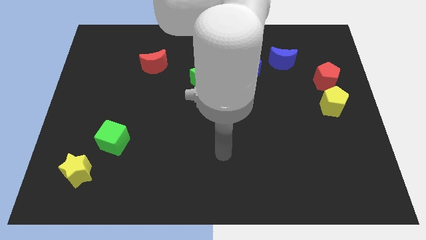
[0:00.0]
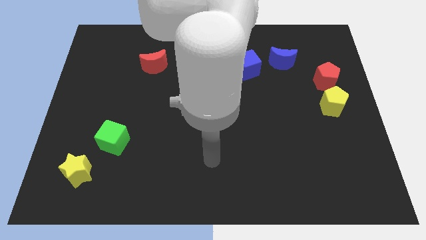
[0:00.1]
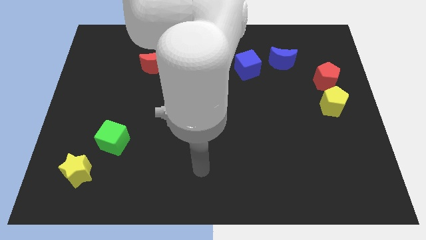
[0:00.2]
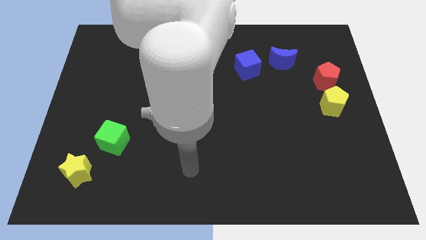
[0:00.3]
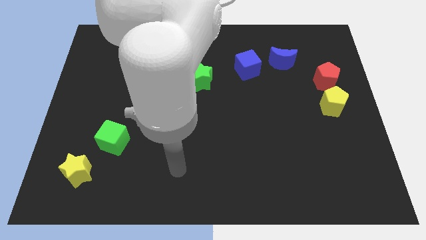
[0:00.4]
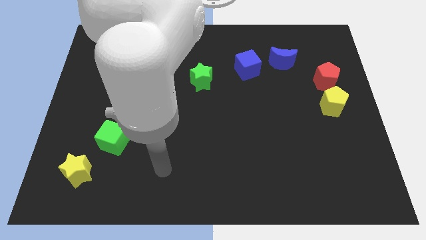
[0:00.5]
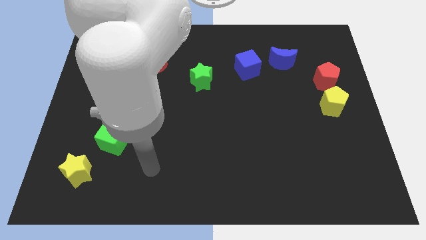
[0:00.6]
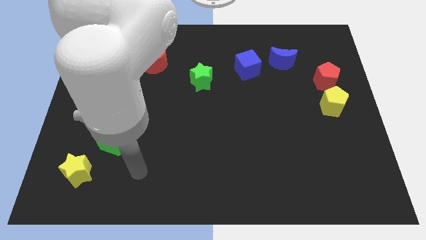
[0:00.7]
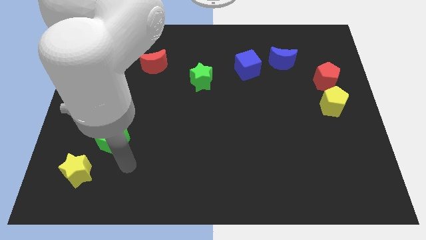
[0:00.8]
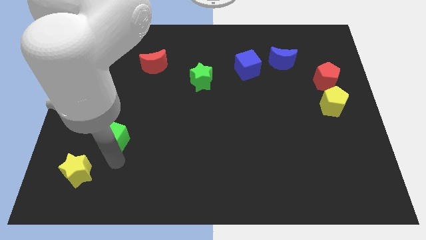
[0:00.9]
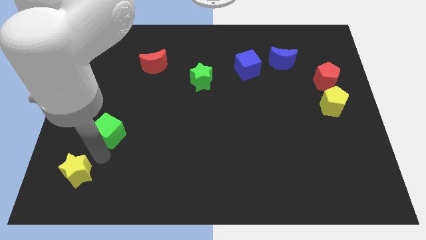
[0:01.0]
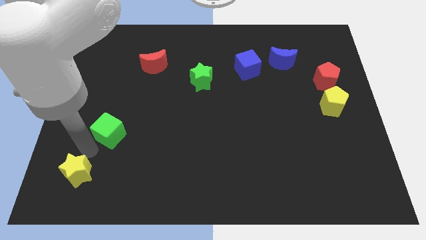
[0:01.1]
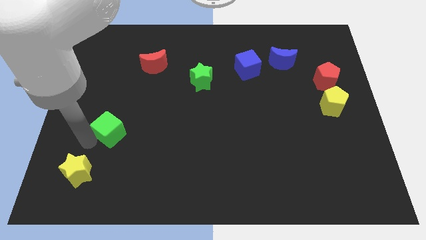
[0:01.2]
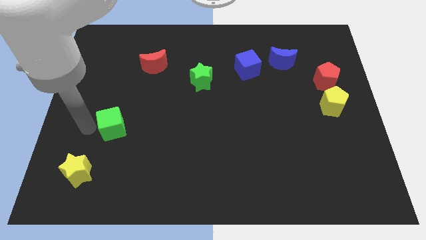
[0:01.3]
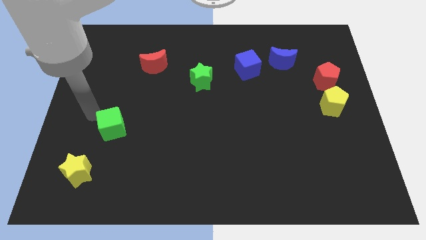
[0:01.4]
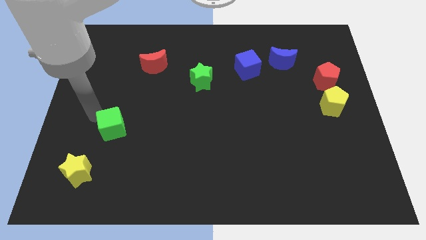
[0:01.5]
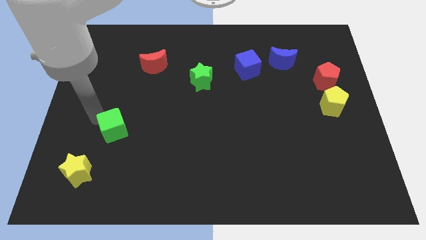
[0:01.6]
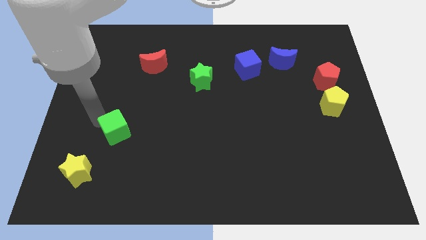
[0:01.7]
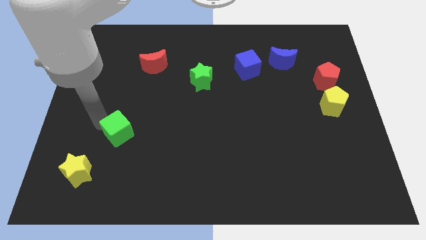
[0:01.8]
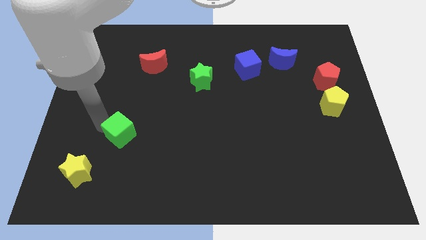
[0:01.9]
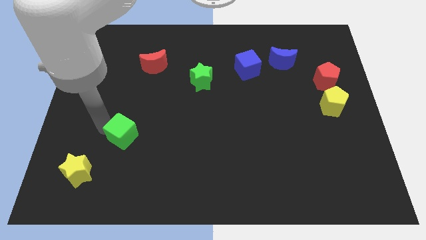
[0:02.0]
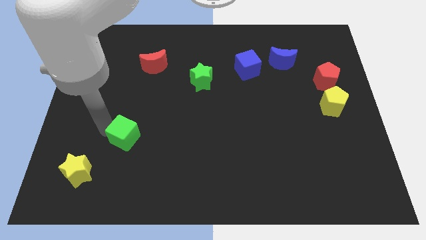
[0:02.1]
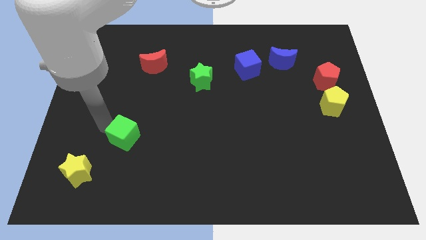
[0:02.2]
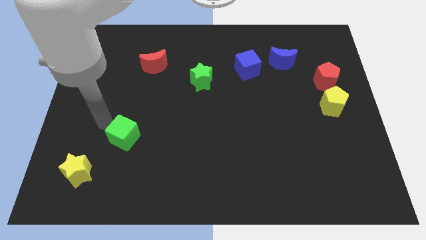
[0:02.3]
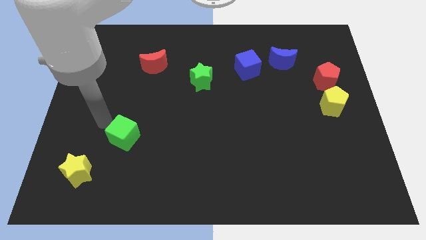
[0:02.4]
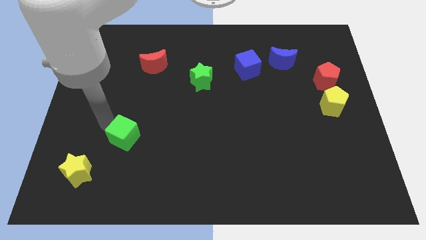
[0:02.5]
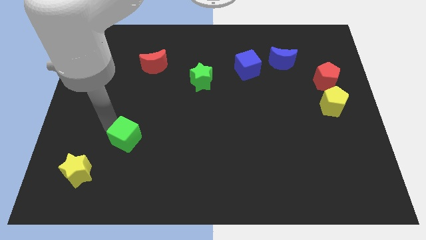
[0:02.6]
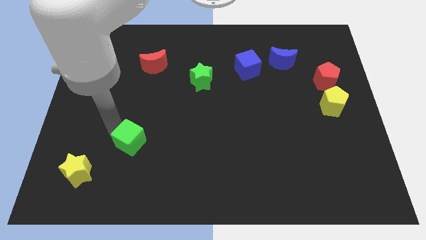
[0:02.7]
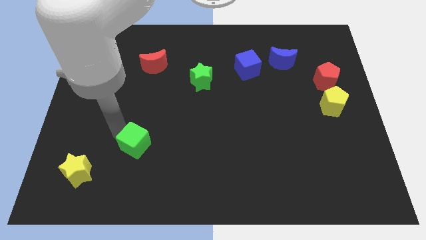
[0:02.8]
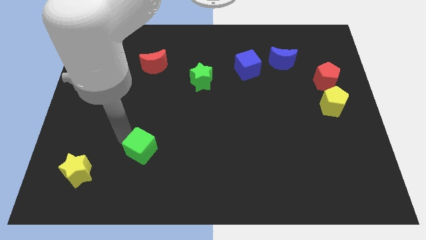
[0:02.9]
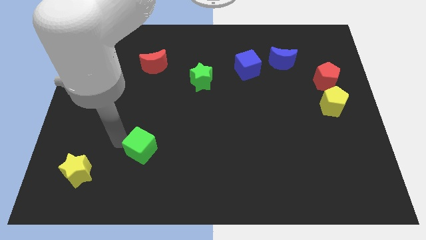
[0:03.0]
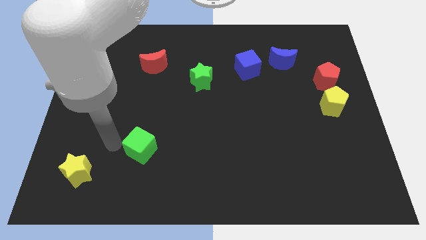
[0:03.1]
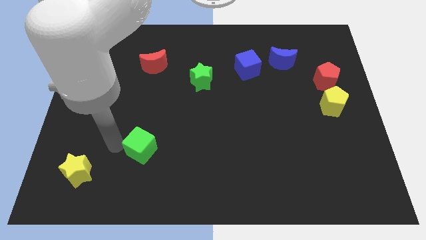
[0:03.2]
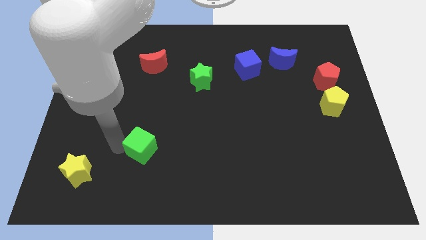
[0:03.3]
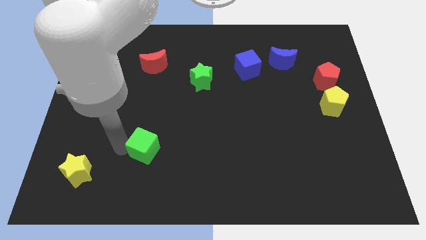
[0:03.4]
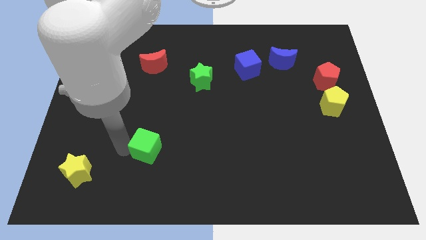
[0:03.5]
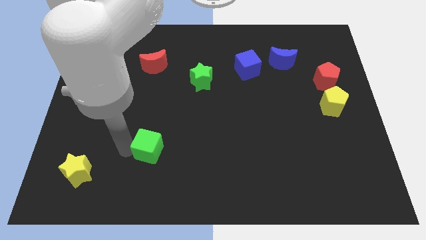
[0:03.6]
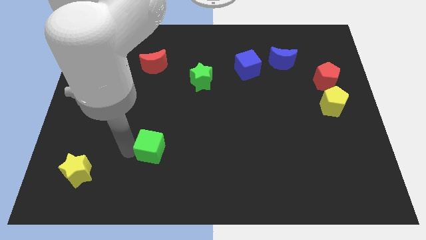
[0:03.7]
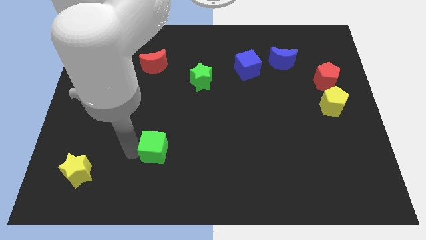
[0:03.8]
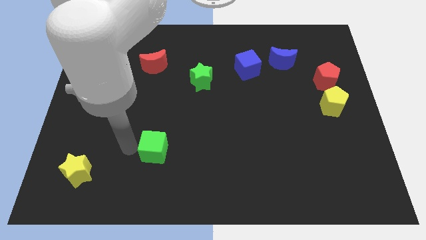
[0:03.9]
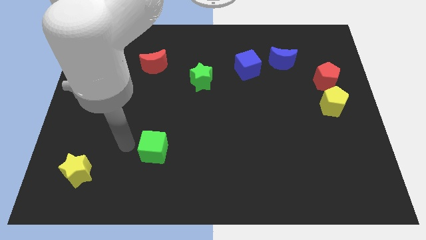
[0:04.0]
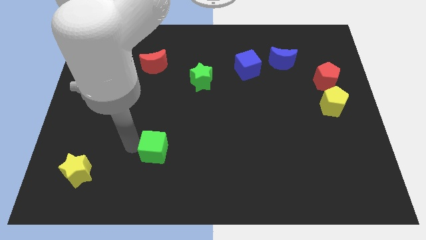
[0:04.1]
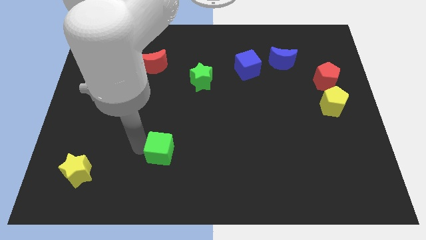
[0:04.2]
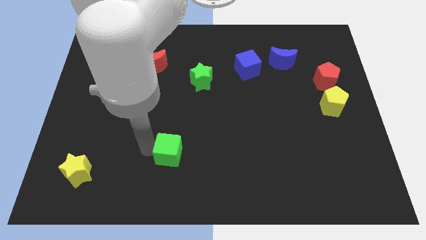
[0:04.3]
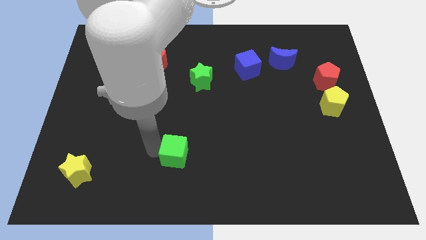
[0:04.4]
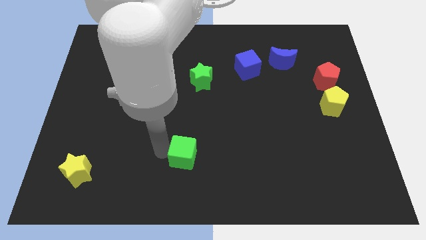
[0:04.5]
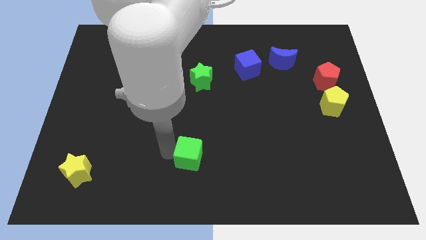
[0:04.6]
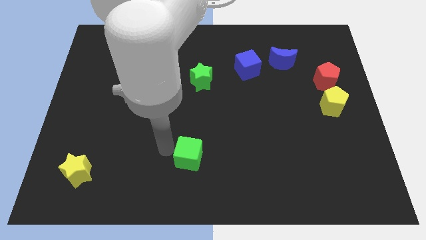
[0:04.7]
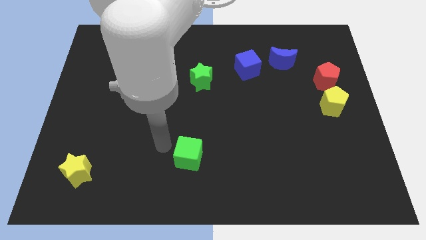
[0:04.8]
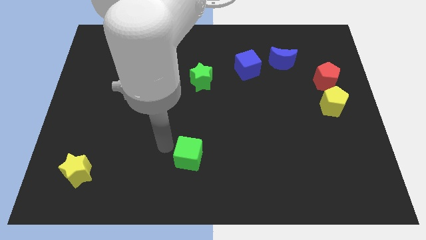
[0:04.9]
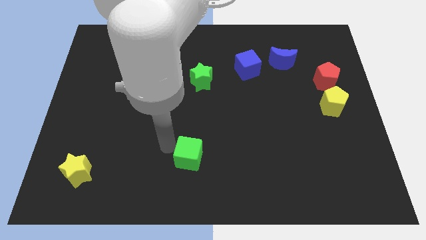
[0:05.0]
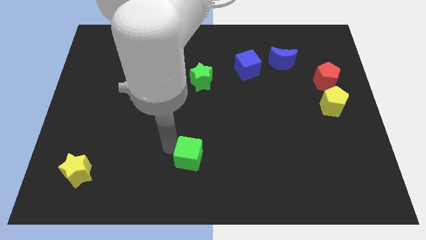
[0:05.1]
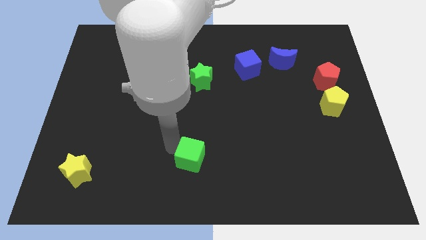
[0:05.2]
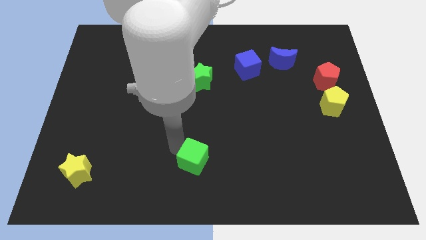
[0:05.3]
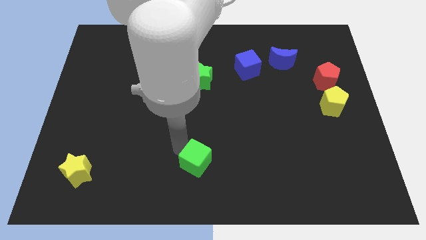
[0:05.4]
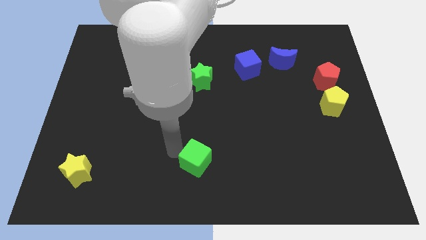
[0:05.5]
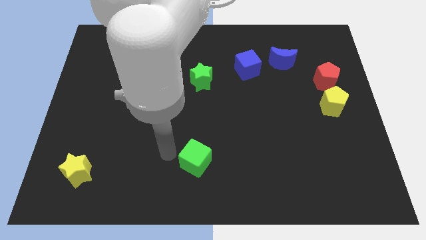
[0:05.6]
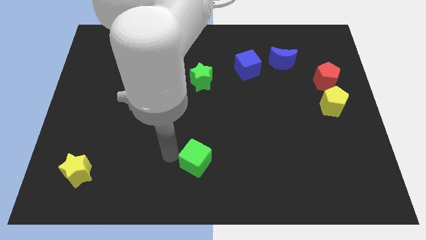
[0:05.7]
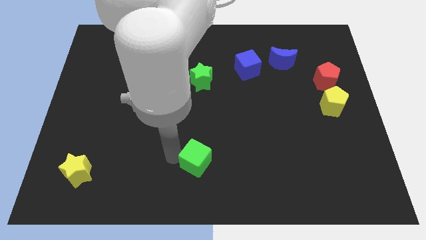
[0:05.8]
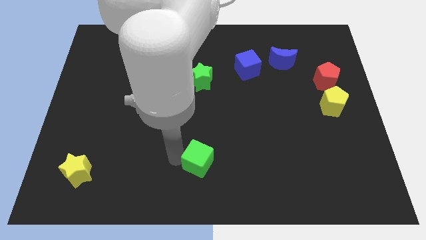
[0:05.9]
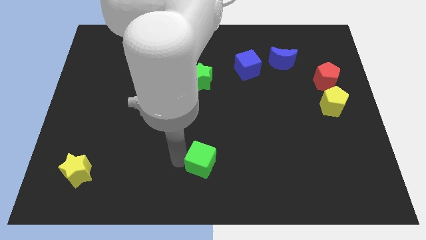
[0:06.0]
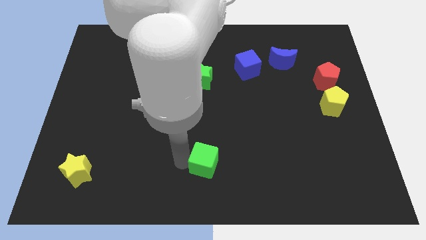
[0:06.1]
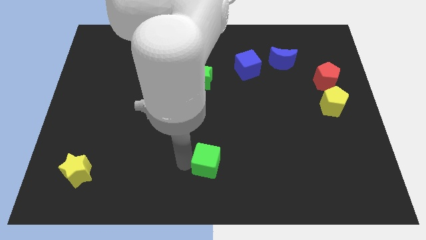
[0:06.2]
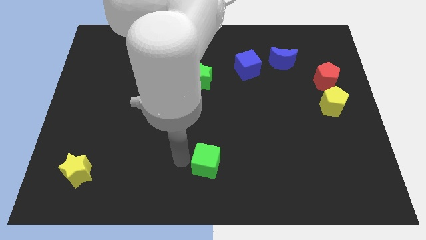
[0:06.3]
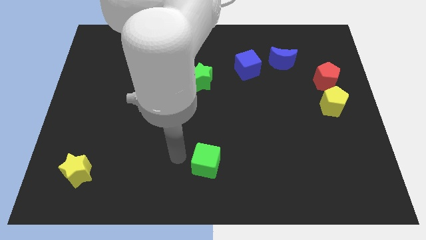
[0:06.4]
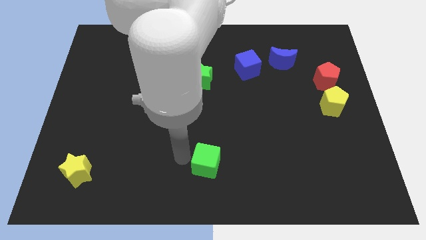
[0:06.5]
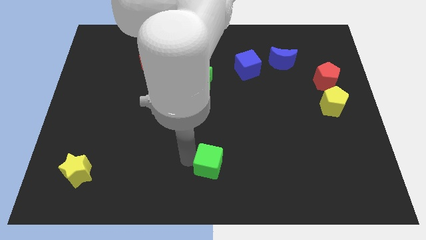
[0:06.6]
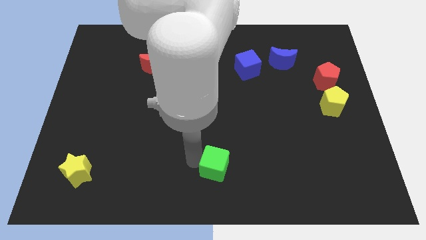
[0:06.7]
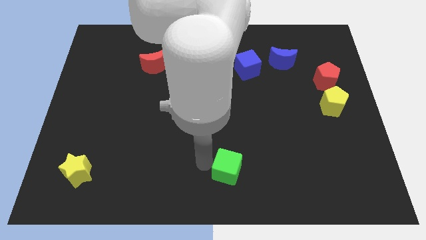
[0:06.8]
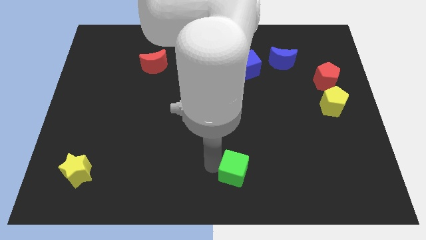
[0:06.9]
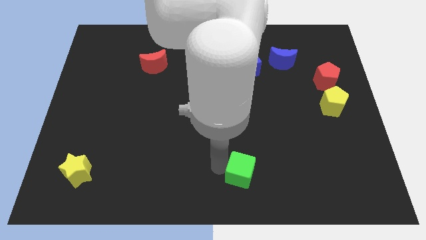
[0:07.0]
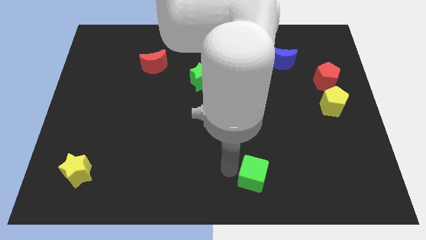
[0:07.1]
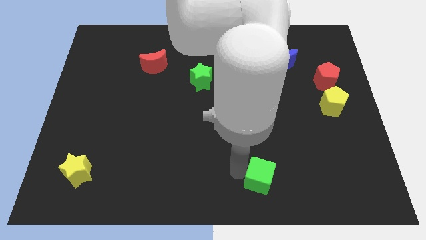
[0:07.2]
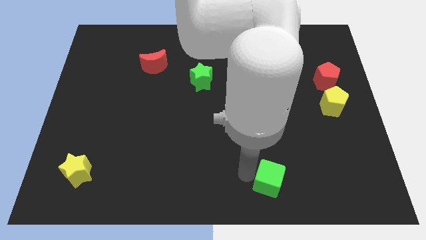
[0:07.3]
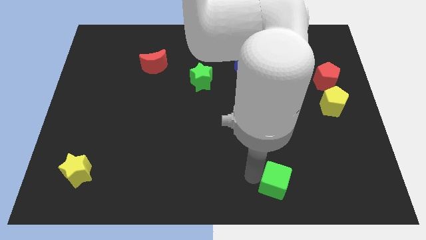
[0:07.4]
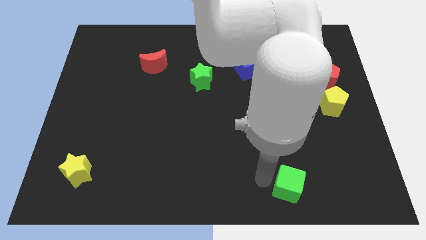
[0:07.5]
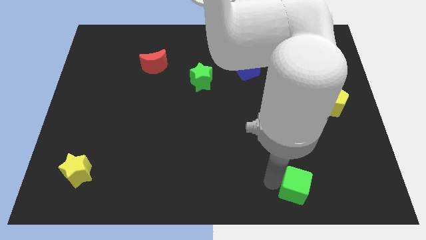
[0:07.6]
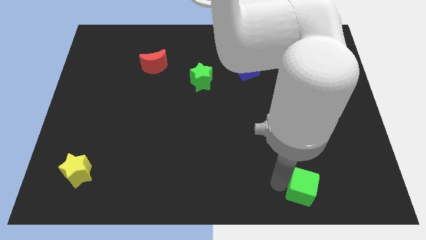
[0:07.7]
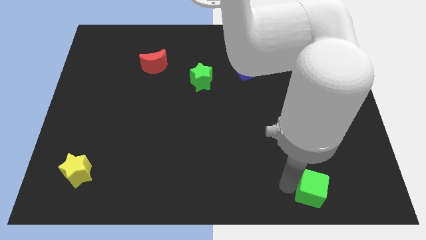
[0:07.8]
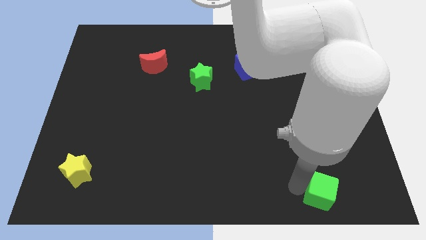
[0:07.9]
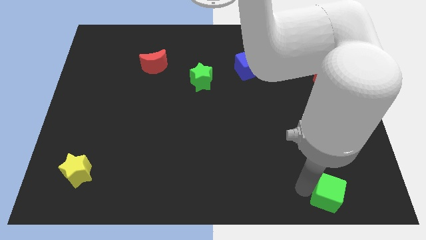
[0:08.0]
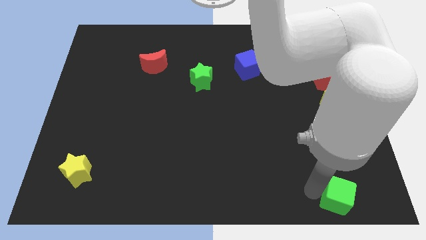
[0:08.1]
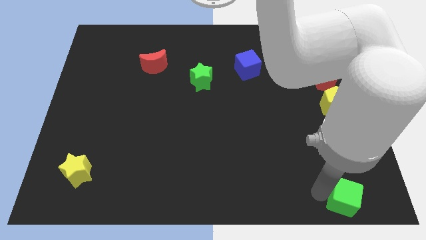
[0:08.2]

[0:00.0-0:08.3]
put the green cube to the bottom right corner
